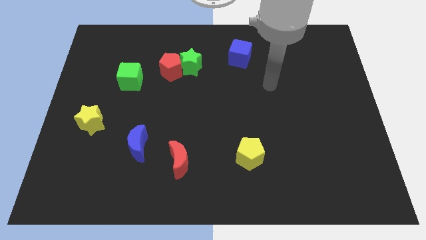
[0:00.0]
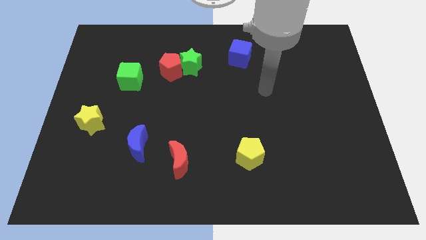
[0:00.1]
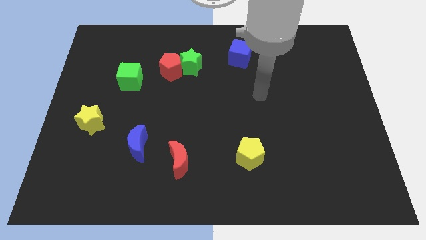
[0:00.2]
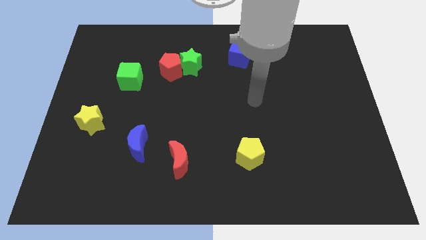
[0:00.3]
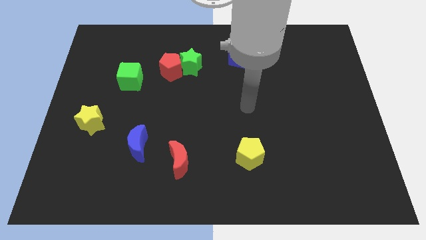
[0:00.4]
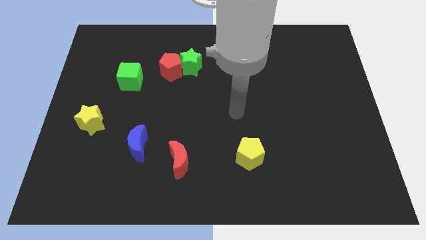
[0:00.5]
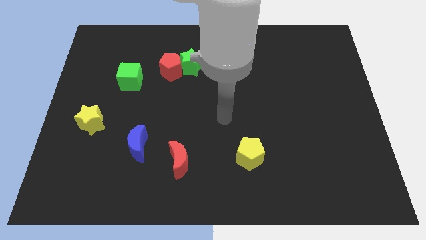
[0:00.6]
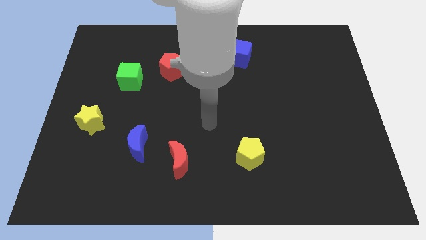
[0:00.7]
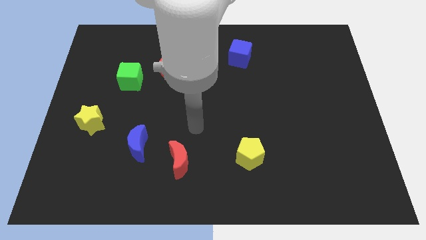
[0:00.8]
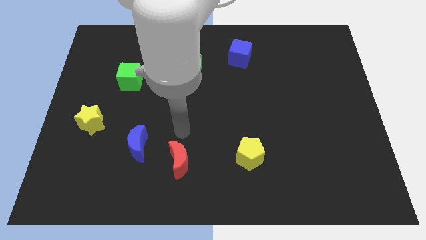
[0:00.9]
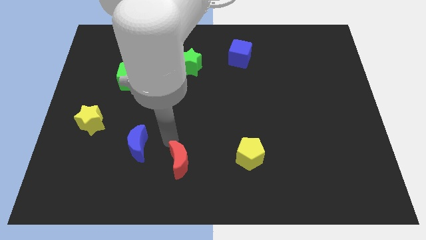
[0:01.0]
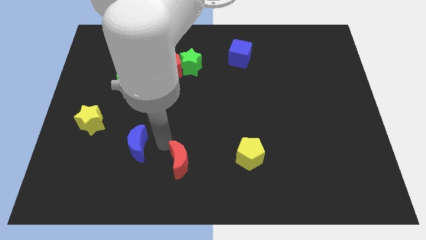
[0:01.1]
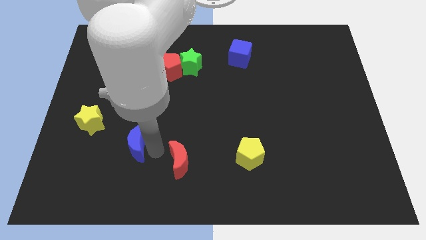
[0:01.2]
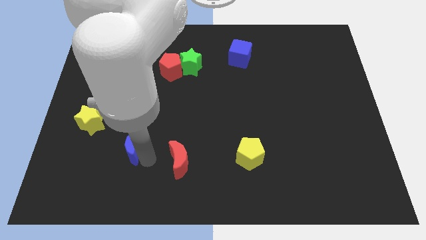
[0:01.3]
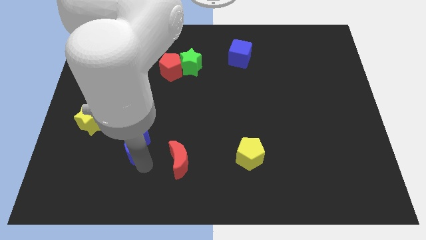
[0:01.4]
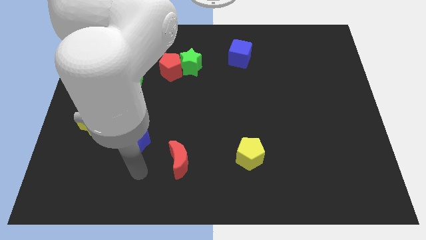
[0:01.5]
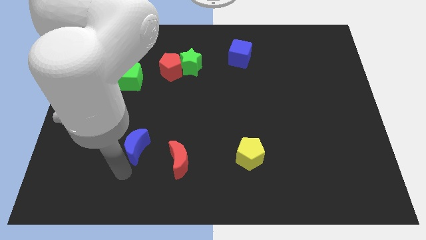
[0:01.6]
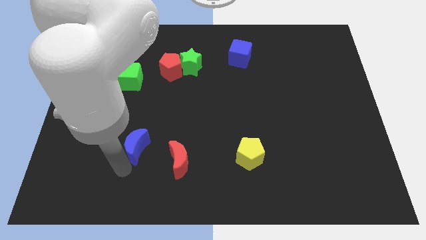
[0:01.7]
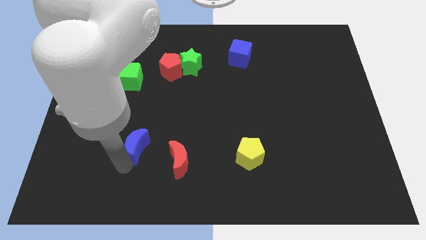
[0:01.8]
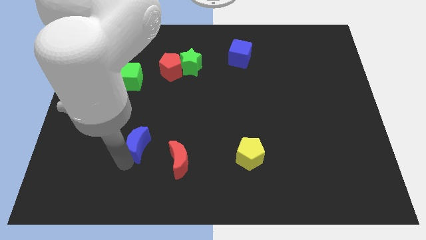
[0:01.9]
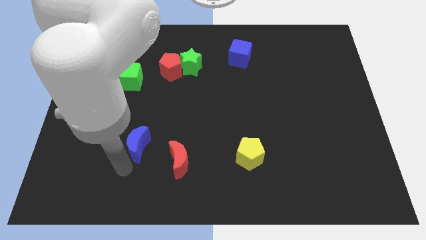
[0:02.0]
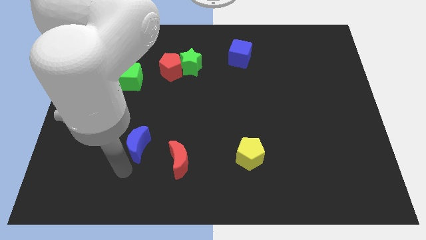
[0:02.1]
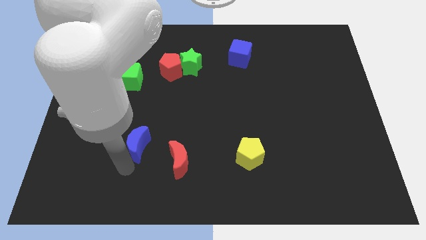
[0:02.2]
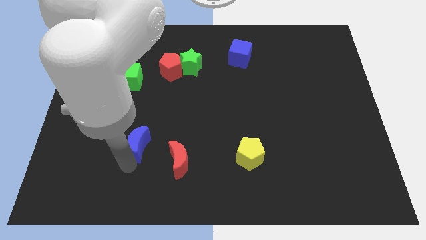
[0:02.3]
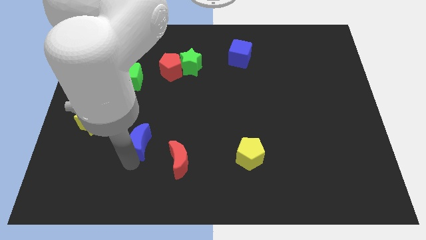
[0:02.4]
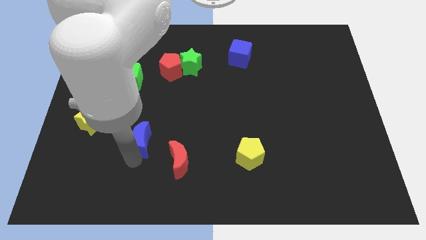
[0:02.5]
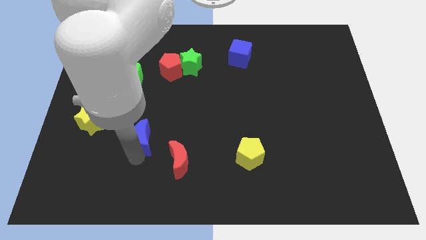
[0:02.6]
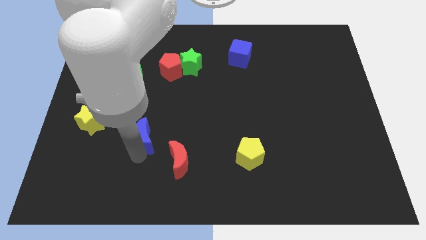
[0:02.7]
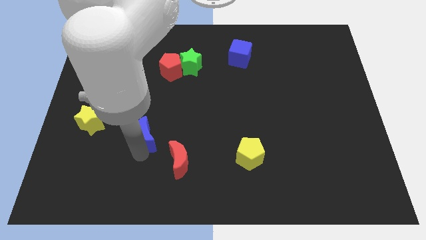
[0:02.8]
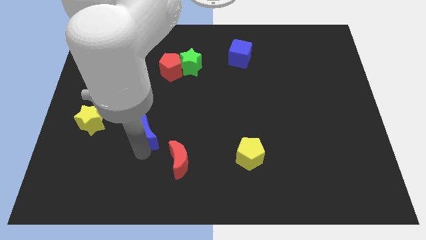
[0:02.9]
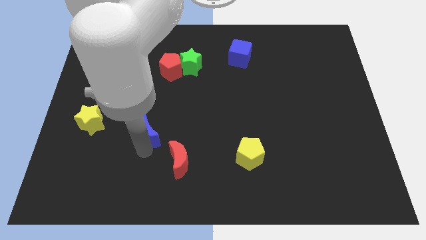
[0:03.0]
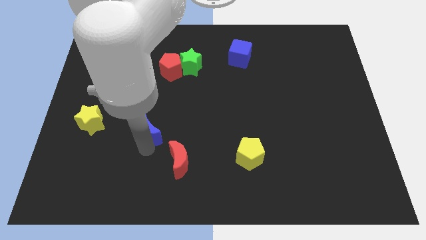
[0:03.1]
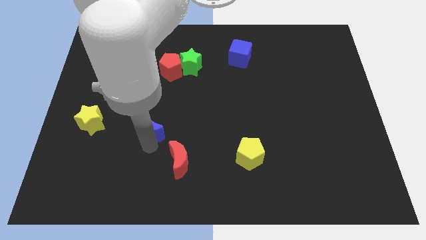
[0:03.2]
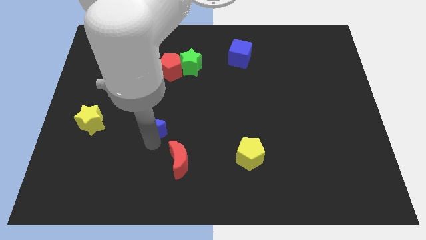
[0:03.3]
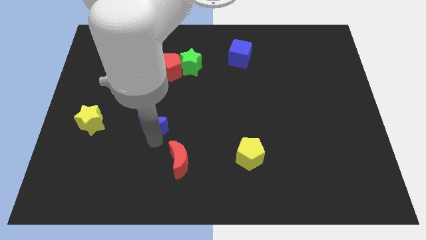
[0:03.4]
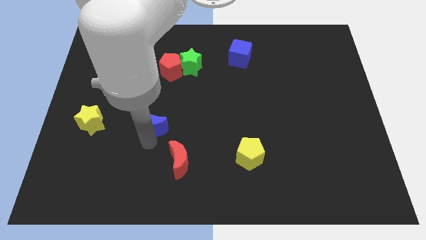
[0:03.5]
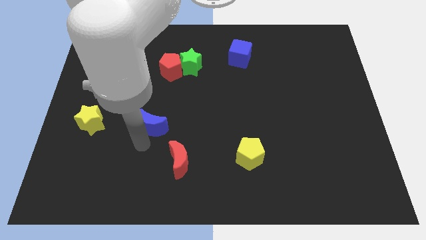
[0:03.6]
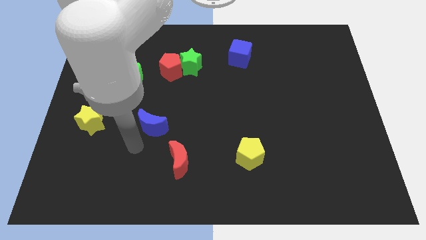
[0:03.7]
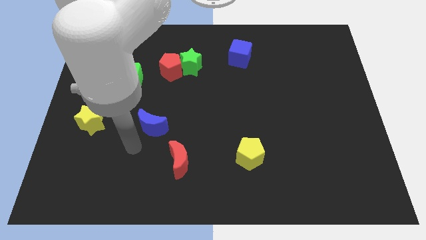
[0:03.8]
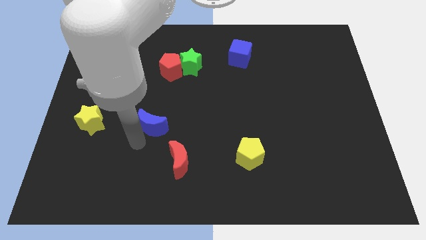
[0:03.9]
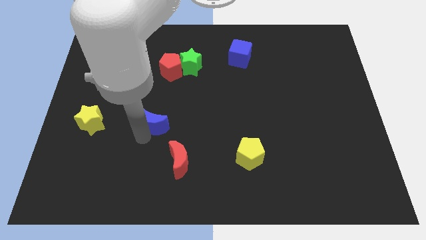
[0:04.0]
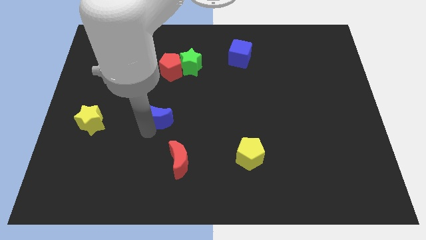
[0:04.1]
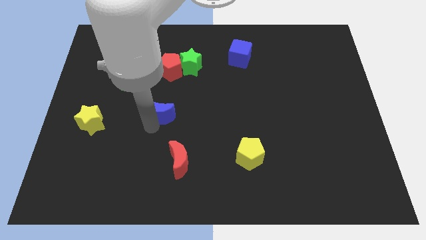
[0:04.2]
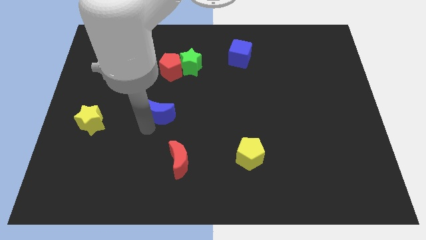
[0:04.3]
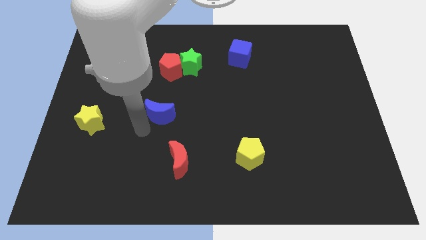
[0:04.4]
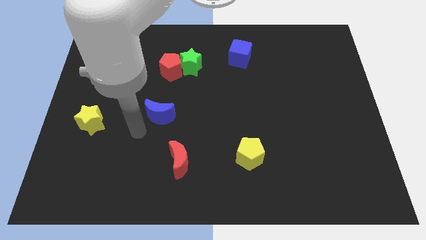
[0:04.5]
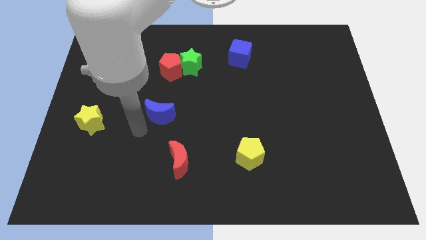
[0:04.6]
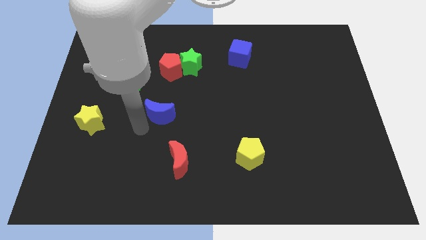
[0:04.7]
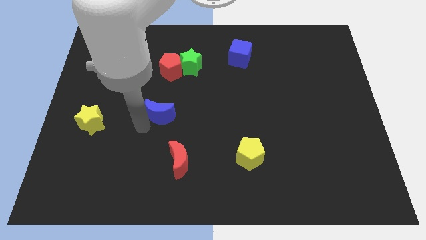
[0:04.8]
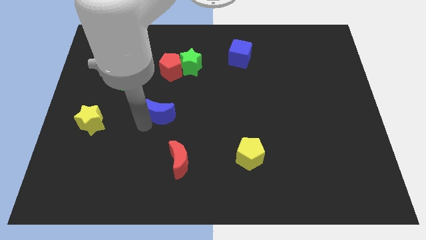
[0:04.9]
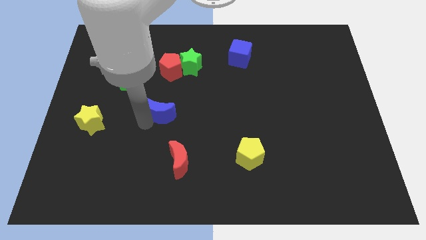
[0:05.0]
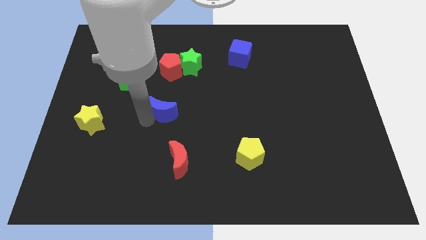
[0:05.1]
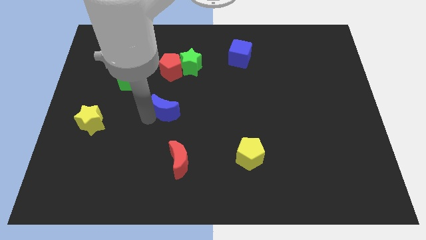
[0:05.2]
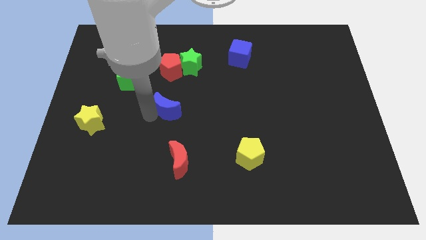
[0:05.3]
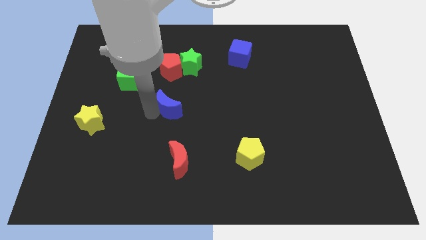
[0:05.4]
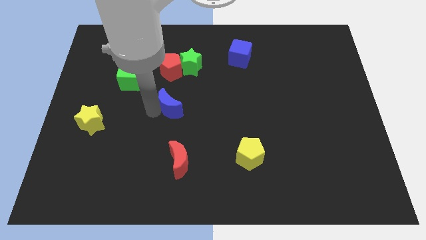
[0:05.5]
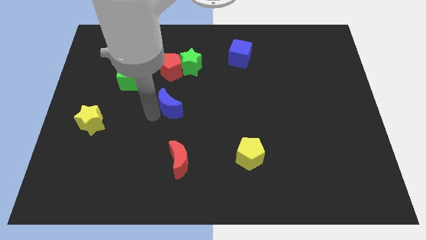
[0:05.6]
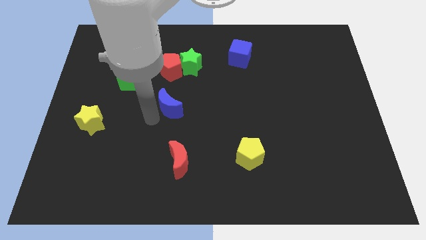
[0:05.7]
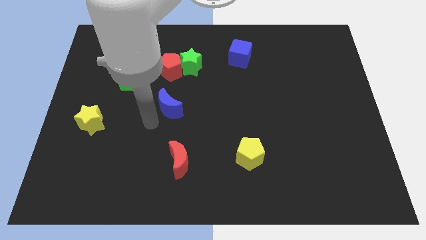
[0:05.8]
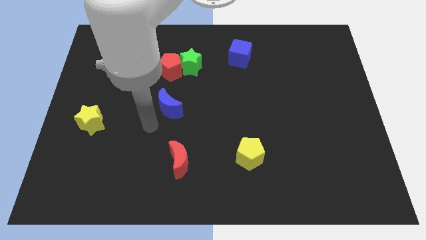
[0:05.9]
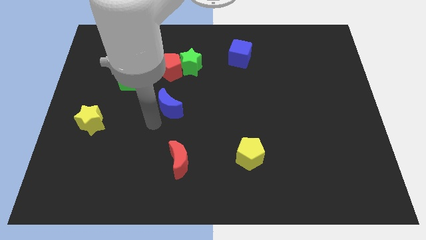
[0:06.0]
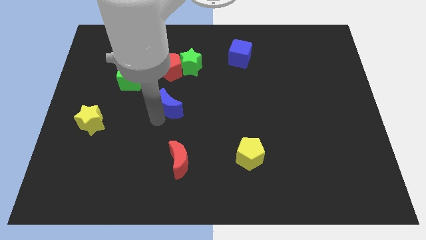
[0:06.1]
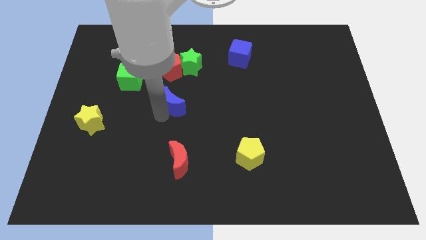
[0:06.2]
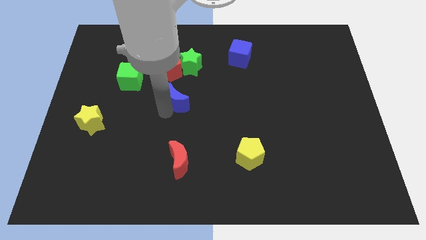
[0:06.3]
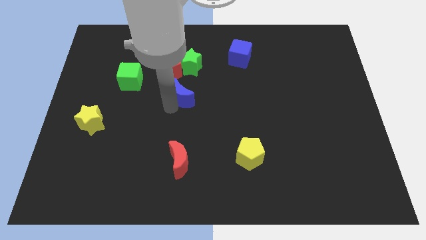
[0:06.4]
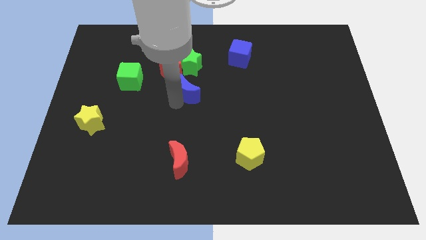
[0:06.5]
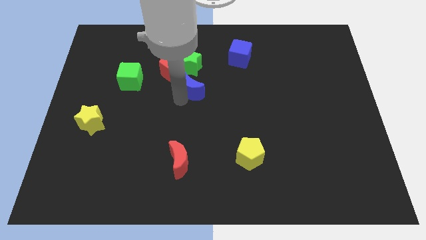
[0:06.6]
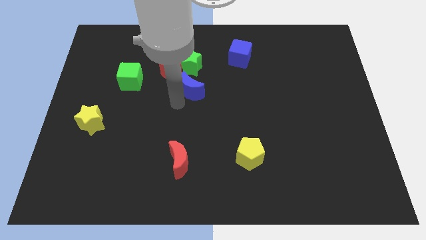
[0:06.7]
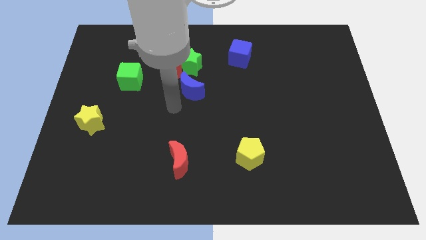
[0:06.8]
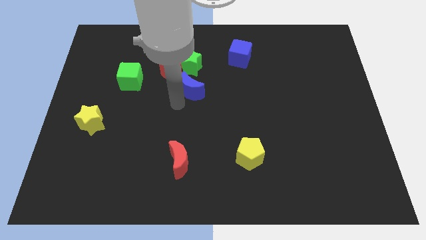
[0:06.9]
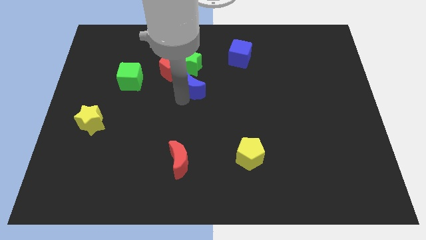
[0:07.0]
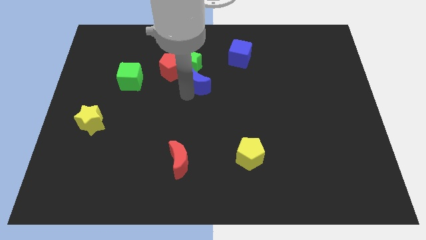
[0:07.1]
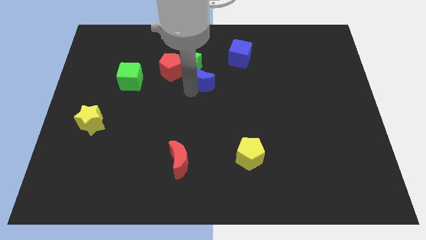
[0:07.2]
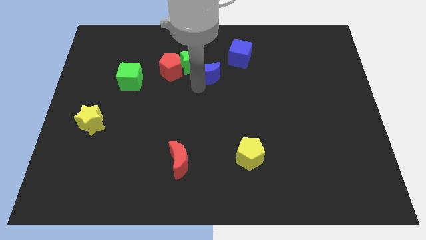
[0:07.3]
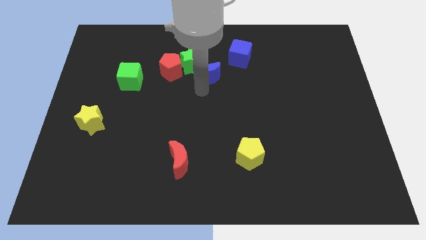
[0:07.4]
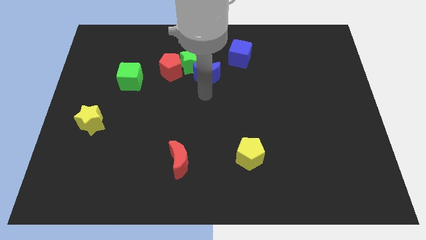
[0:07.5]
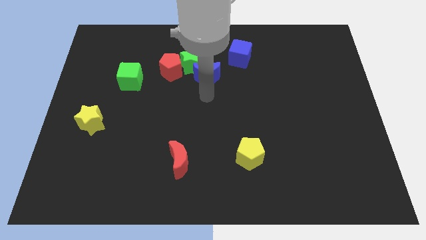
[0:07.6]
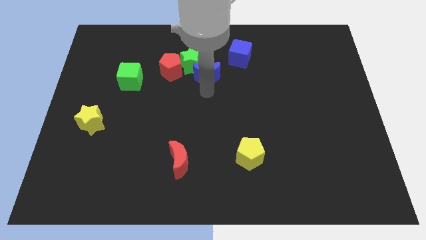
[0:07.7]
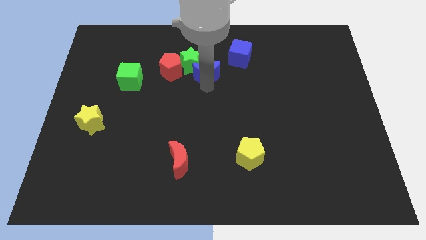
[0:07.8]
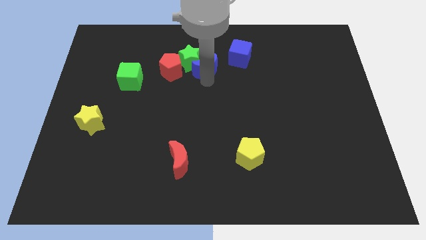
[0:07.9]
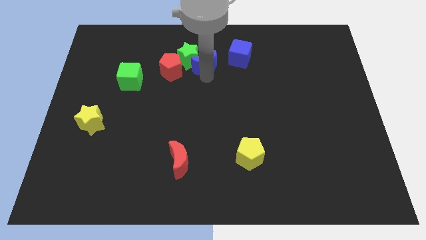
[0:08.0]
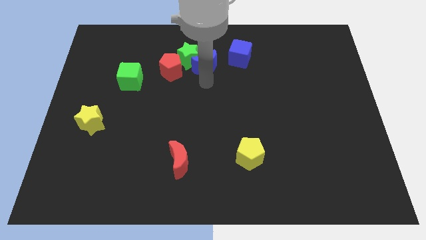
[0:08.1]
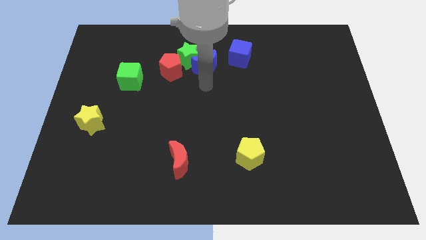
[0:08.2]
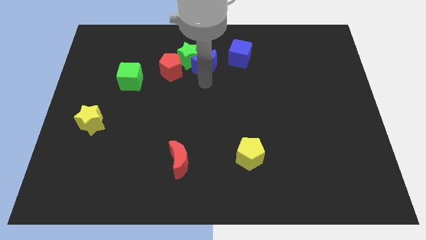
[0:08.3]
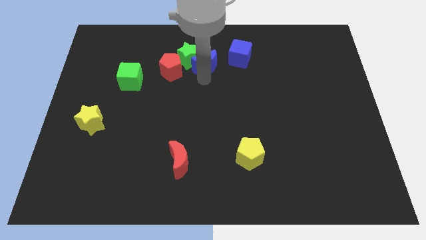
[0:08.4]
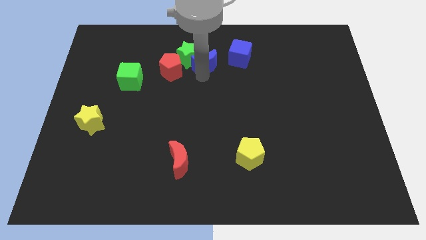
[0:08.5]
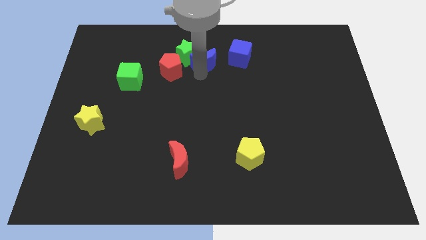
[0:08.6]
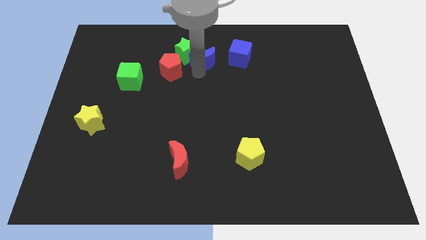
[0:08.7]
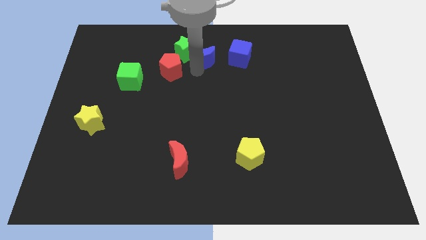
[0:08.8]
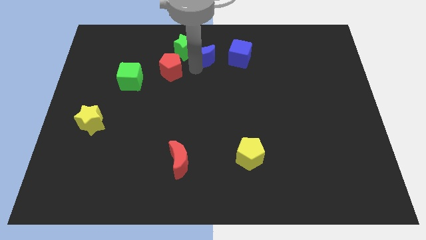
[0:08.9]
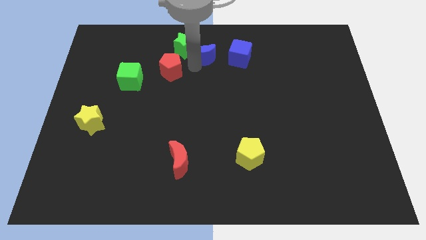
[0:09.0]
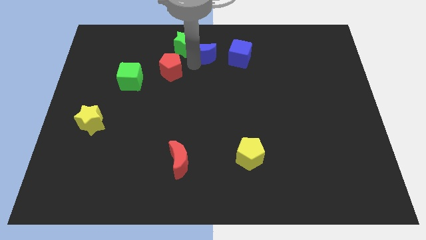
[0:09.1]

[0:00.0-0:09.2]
move the blue moon to the top
